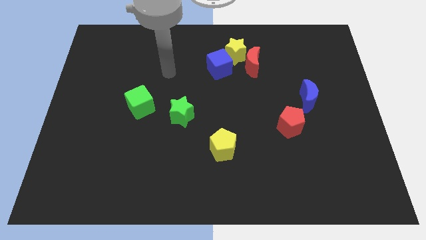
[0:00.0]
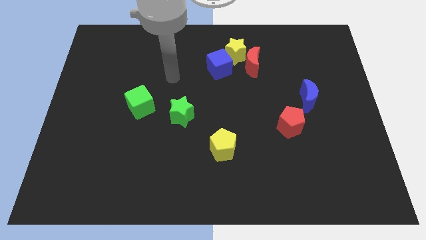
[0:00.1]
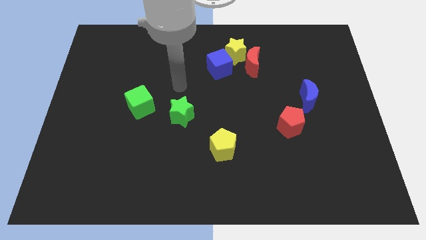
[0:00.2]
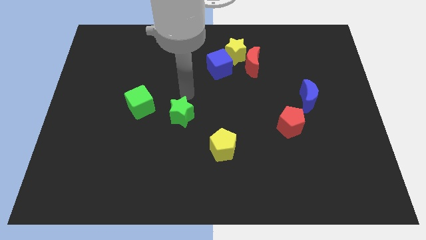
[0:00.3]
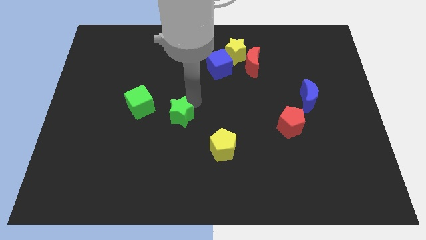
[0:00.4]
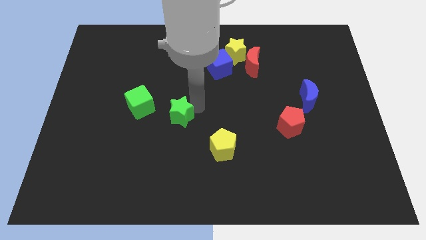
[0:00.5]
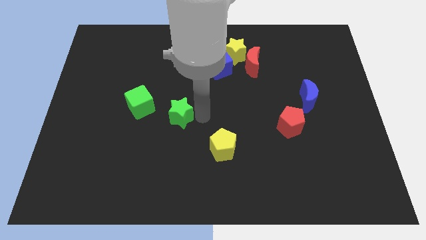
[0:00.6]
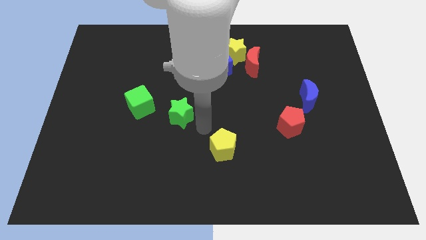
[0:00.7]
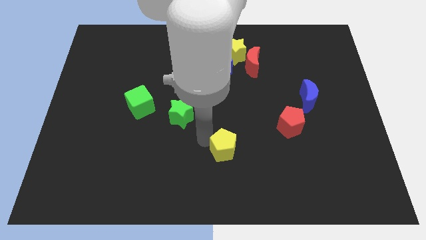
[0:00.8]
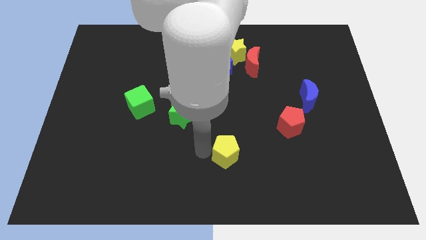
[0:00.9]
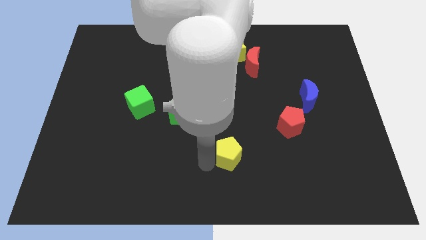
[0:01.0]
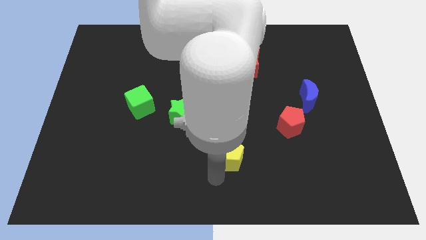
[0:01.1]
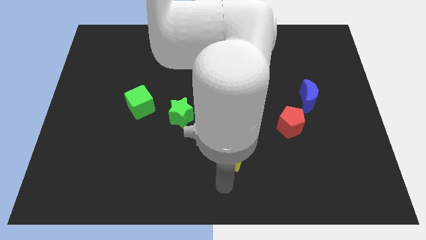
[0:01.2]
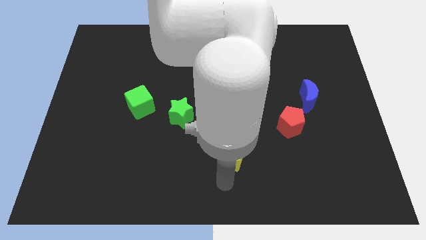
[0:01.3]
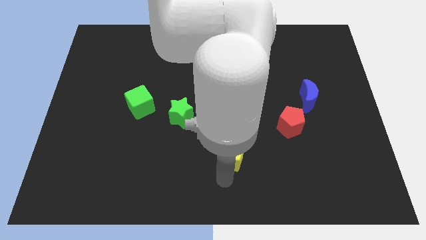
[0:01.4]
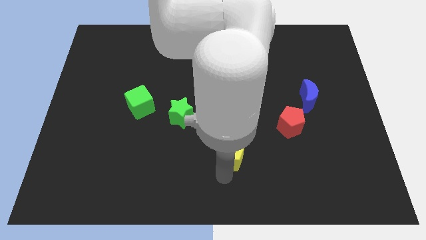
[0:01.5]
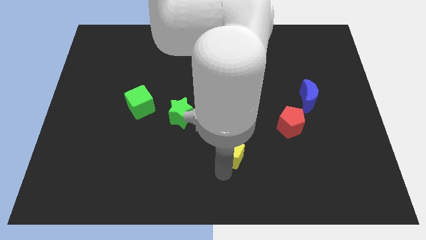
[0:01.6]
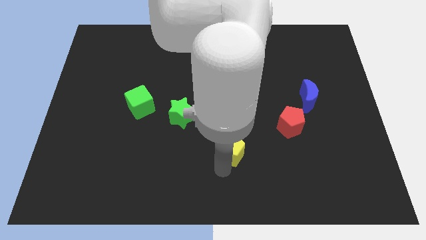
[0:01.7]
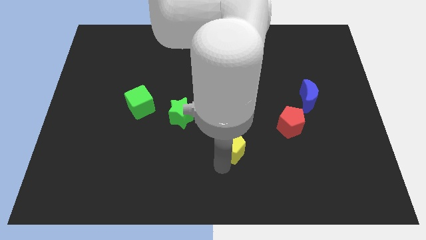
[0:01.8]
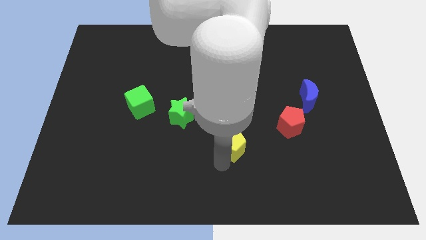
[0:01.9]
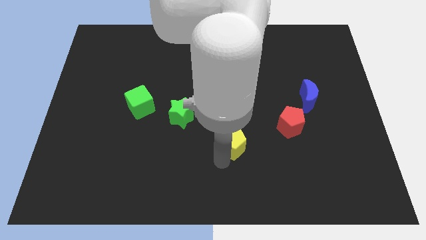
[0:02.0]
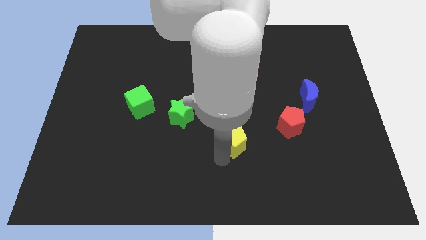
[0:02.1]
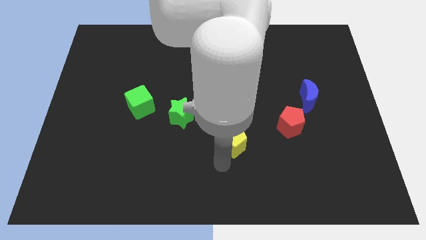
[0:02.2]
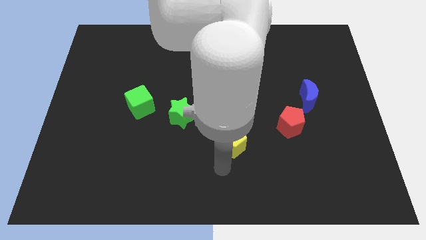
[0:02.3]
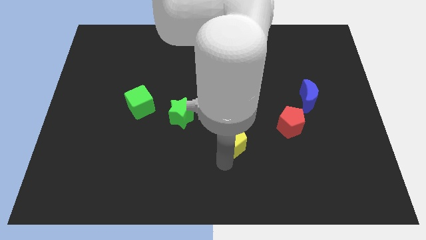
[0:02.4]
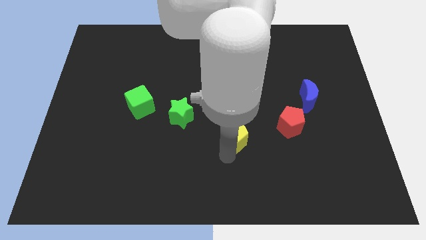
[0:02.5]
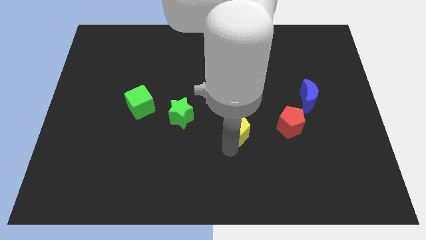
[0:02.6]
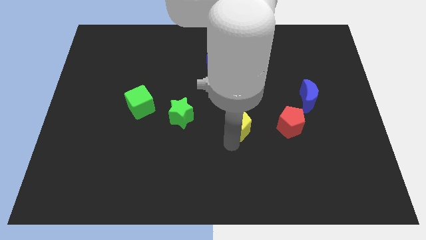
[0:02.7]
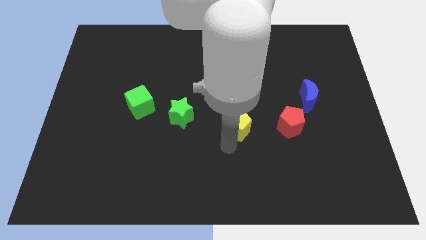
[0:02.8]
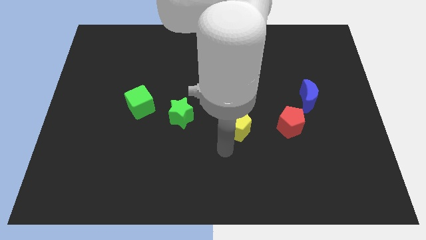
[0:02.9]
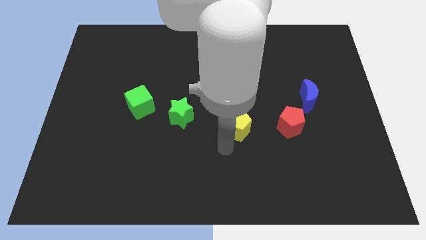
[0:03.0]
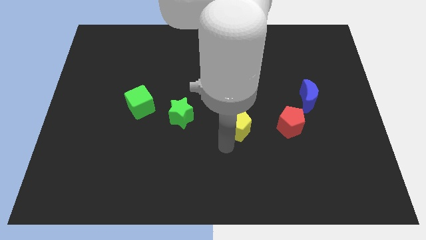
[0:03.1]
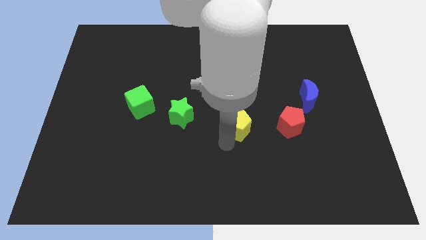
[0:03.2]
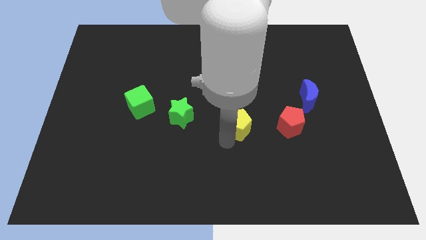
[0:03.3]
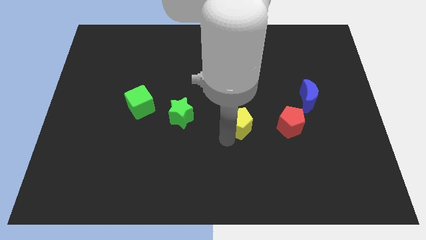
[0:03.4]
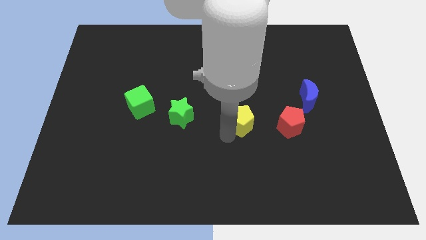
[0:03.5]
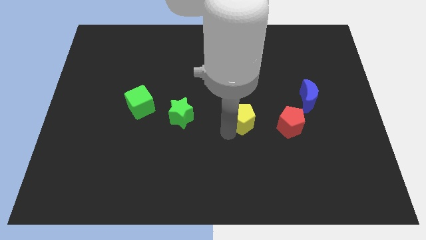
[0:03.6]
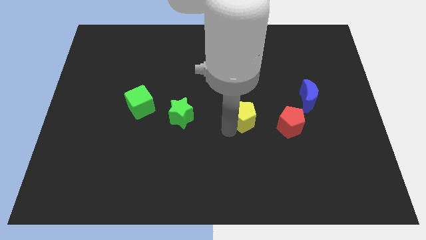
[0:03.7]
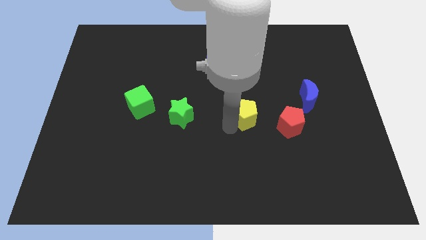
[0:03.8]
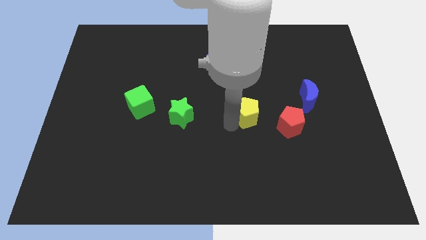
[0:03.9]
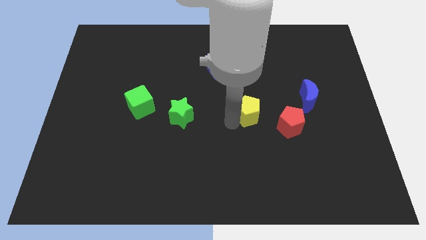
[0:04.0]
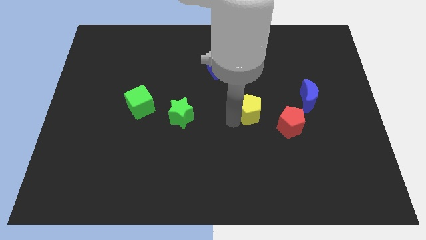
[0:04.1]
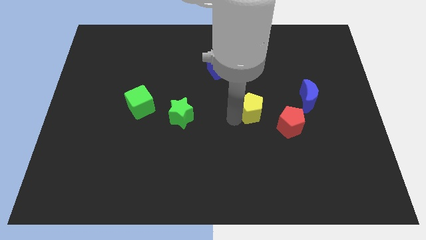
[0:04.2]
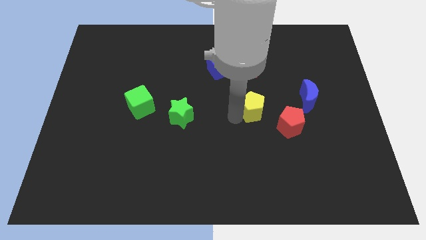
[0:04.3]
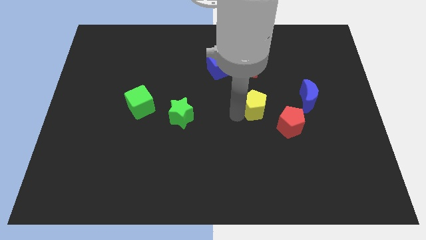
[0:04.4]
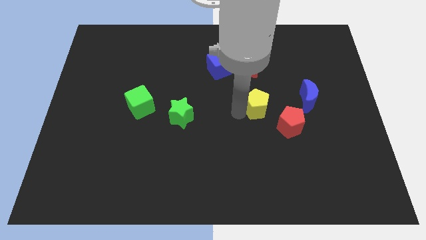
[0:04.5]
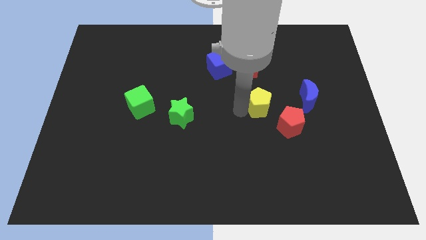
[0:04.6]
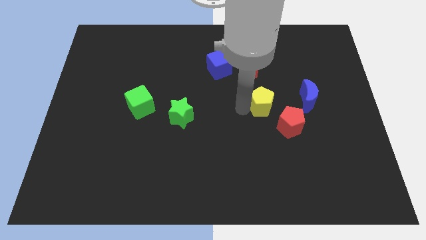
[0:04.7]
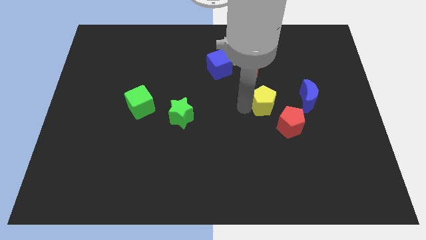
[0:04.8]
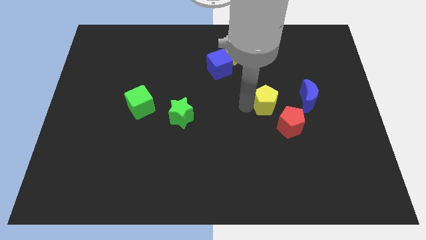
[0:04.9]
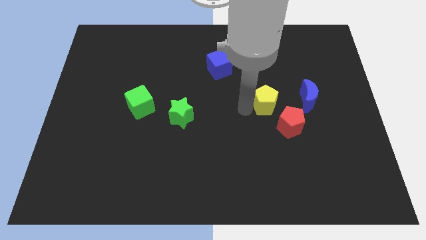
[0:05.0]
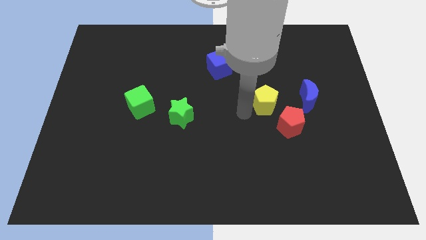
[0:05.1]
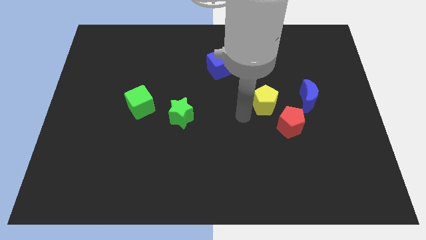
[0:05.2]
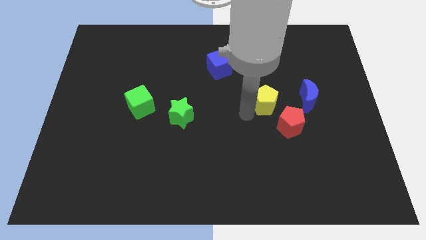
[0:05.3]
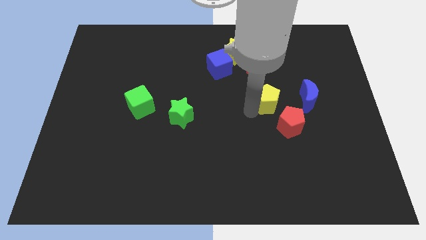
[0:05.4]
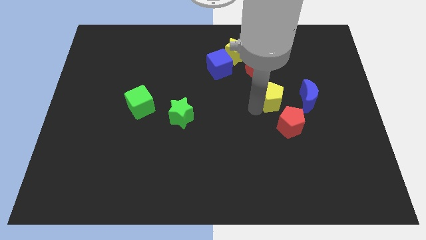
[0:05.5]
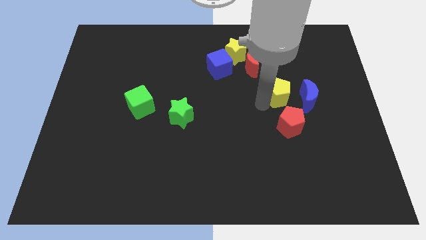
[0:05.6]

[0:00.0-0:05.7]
move the yellow pentagon upwards and then right

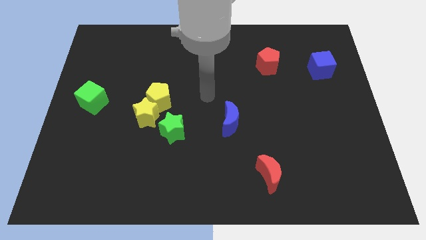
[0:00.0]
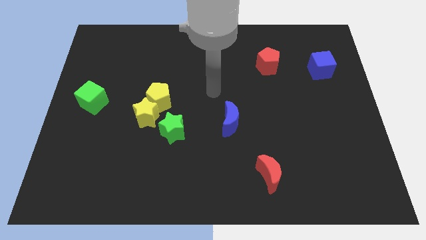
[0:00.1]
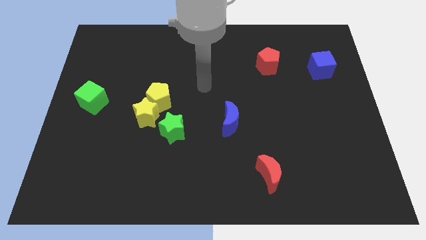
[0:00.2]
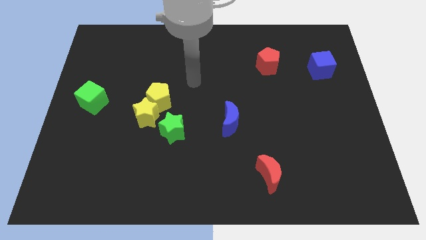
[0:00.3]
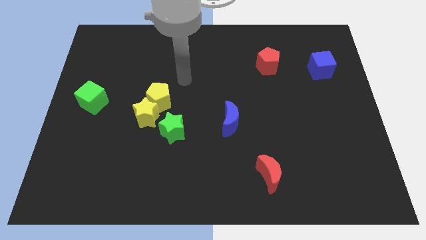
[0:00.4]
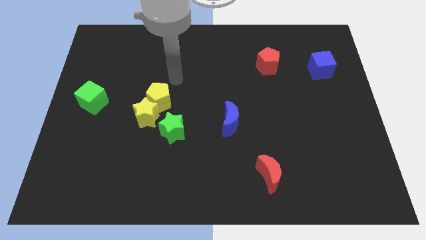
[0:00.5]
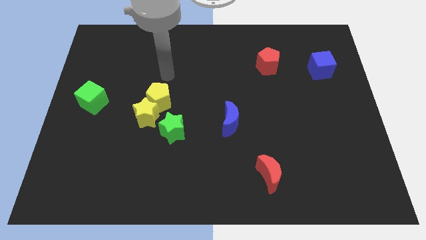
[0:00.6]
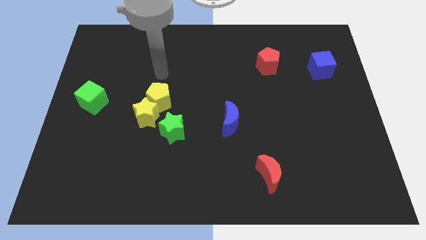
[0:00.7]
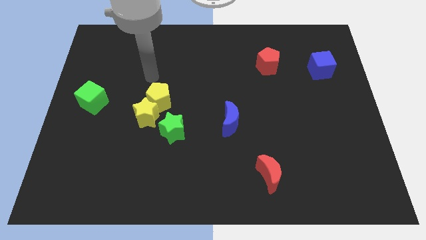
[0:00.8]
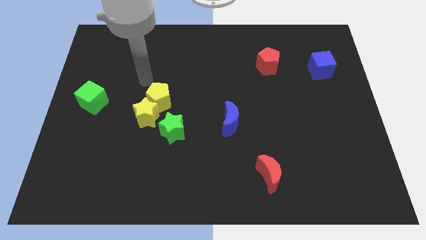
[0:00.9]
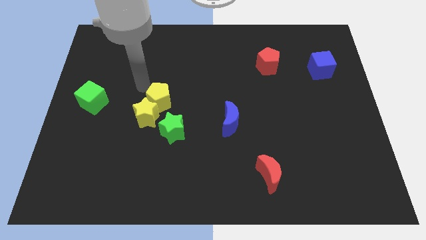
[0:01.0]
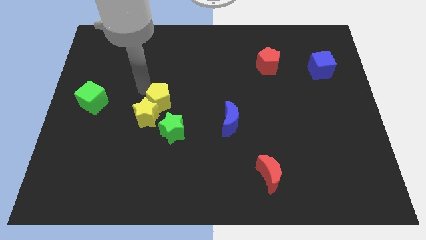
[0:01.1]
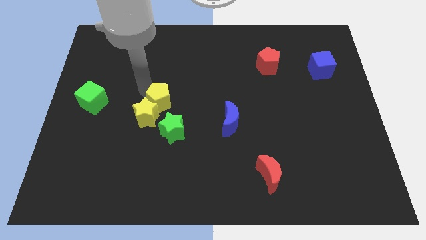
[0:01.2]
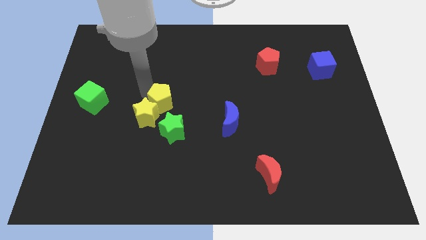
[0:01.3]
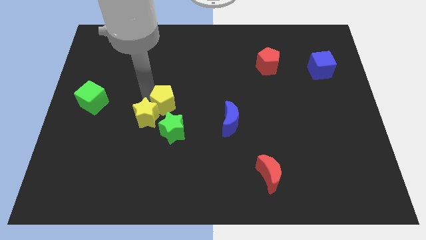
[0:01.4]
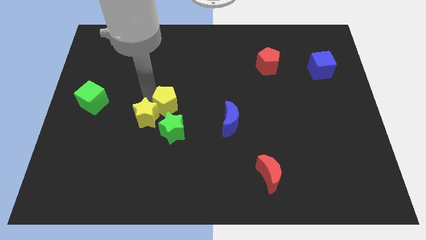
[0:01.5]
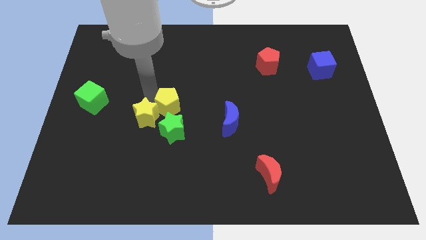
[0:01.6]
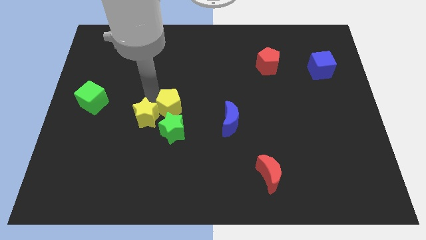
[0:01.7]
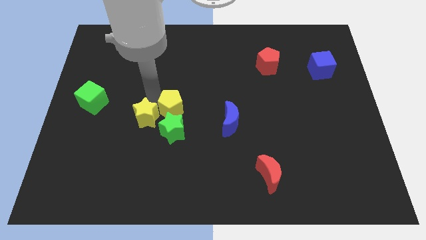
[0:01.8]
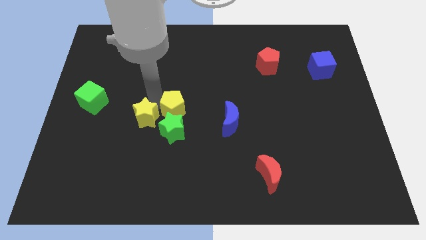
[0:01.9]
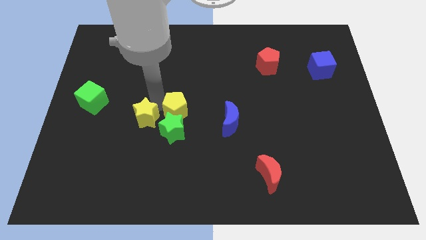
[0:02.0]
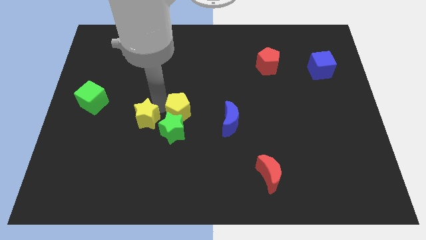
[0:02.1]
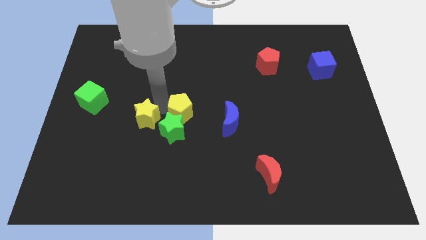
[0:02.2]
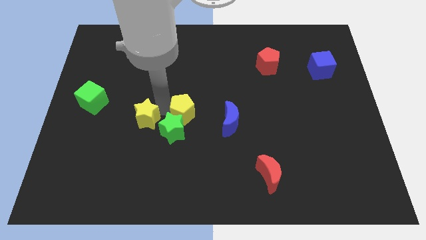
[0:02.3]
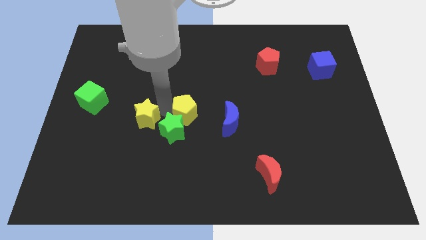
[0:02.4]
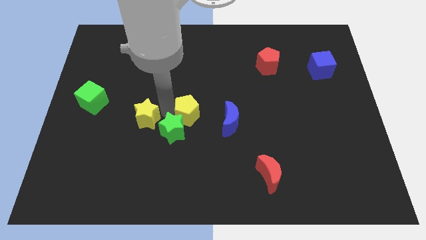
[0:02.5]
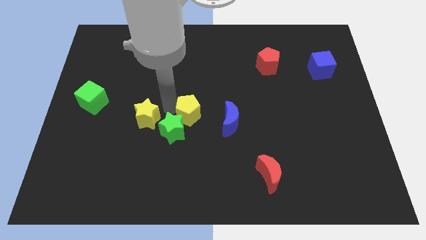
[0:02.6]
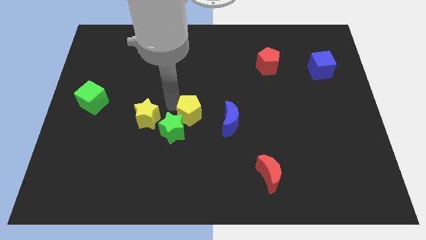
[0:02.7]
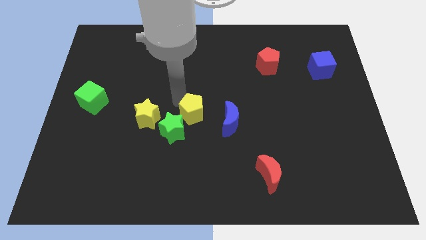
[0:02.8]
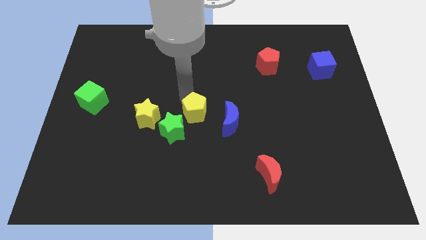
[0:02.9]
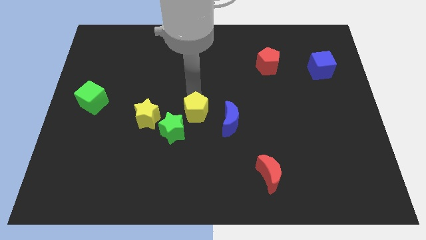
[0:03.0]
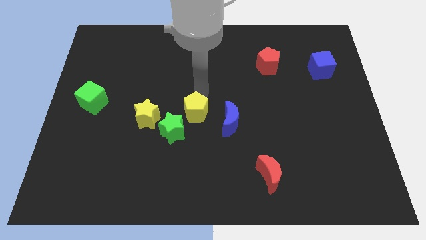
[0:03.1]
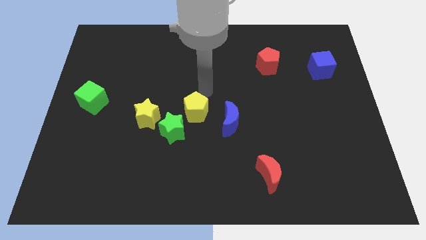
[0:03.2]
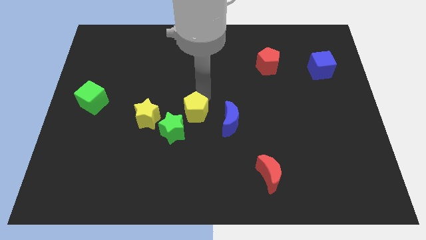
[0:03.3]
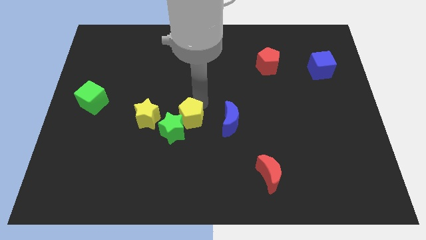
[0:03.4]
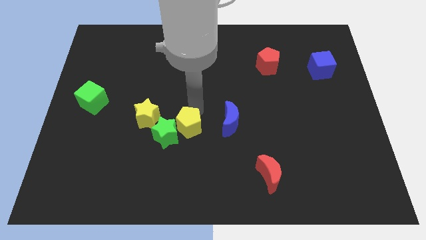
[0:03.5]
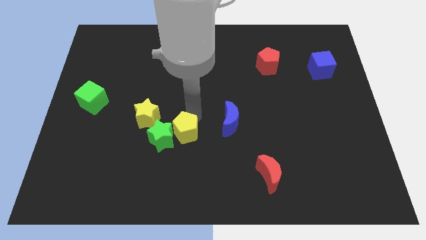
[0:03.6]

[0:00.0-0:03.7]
slightly push the yellow pentagon down
